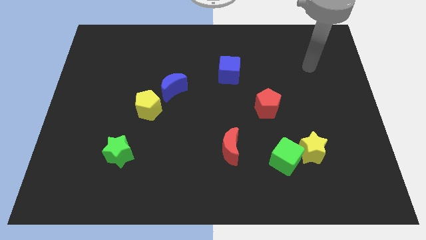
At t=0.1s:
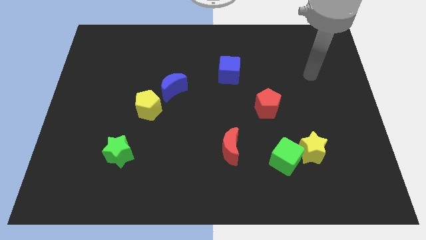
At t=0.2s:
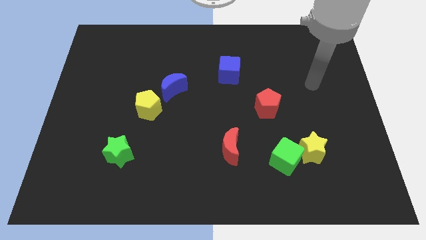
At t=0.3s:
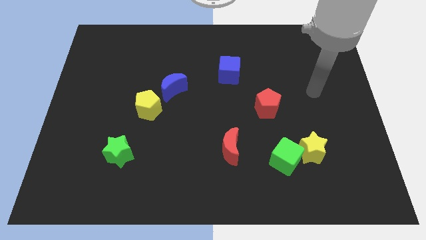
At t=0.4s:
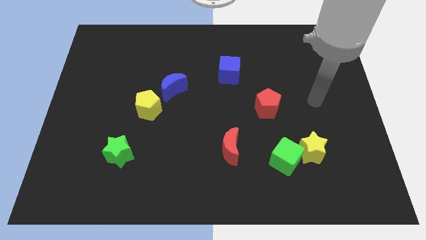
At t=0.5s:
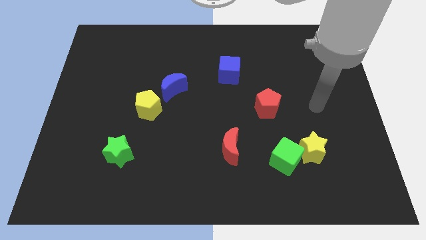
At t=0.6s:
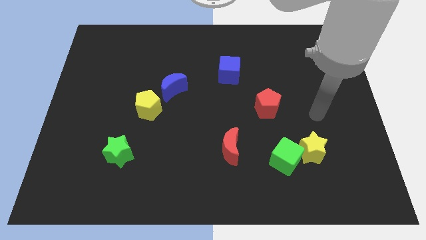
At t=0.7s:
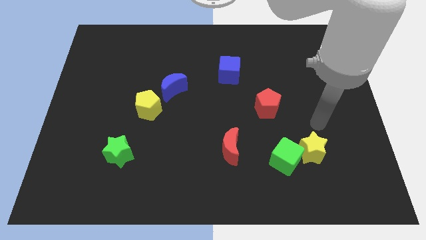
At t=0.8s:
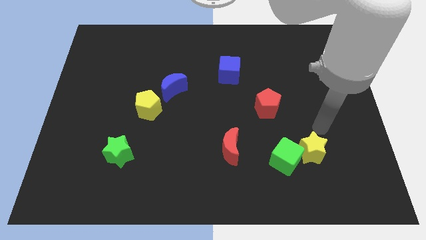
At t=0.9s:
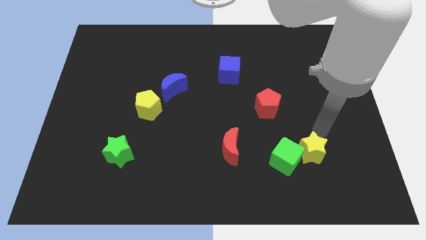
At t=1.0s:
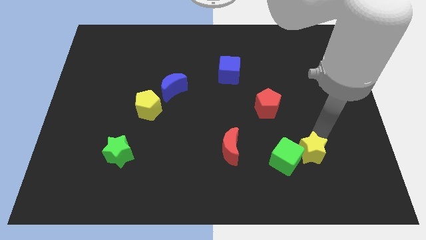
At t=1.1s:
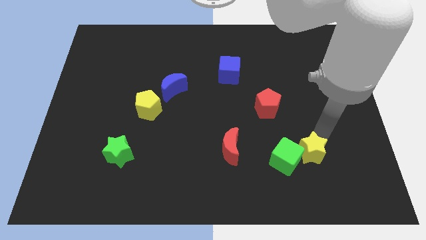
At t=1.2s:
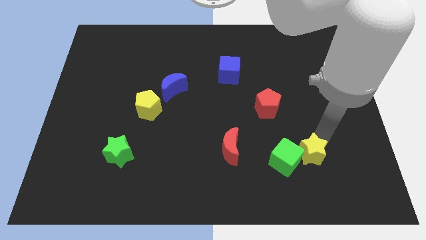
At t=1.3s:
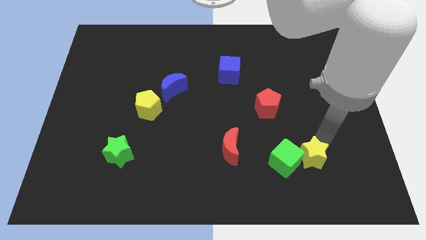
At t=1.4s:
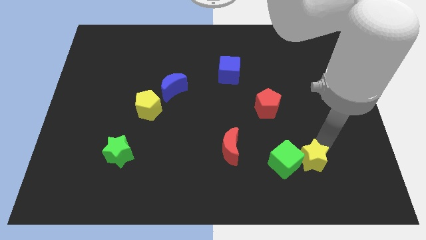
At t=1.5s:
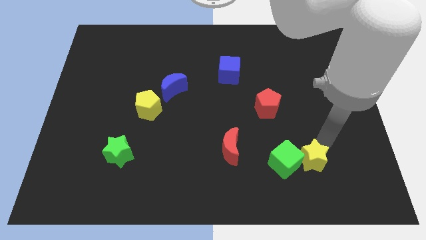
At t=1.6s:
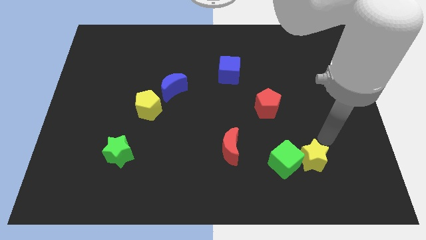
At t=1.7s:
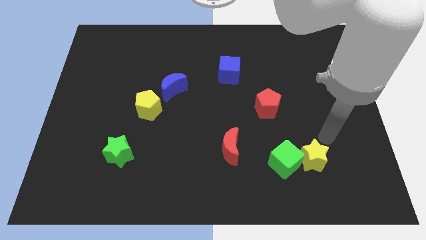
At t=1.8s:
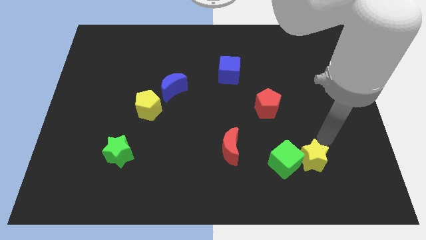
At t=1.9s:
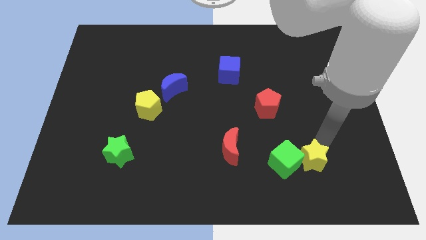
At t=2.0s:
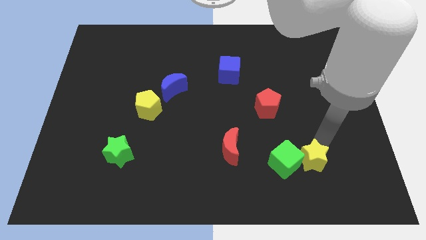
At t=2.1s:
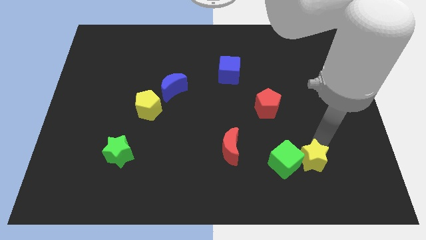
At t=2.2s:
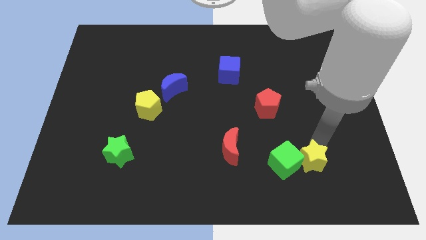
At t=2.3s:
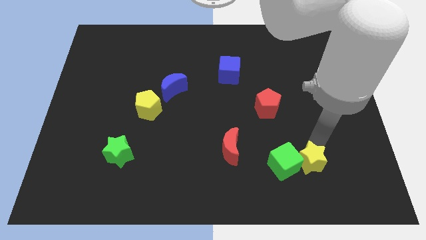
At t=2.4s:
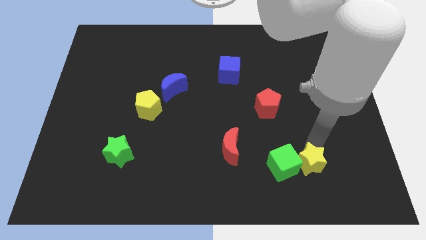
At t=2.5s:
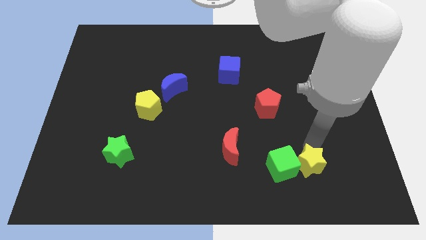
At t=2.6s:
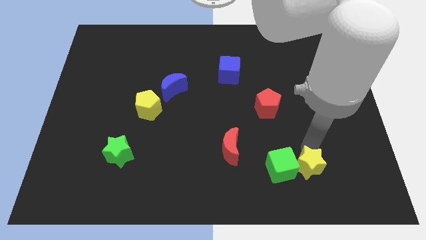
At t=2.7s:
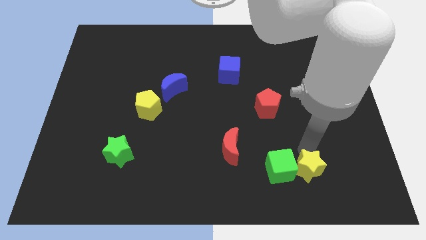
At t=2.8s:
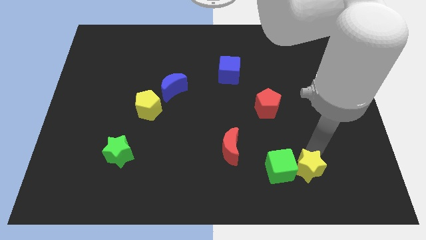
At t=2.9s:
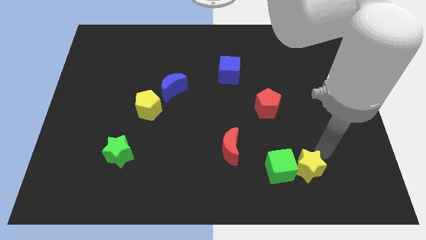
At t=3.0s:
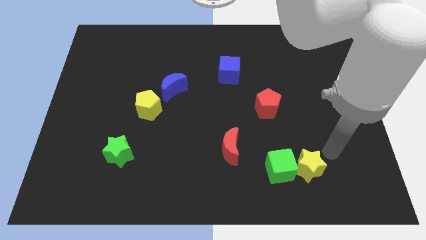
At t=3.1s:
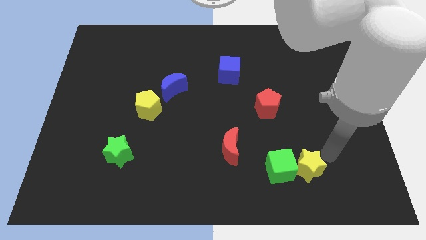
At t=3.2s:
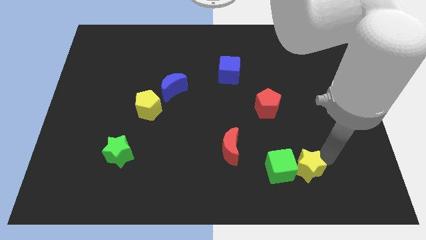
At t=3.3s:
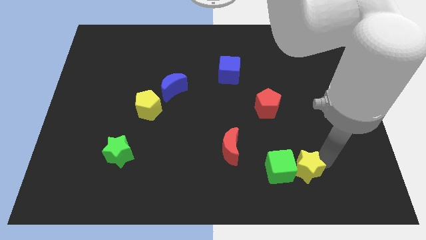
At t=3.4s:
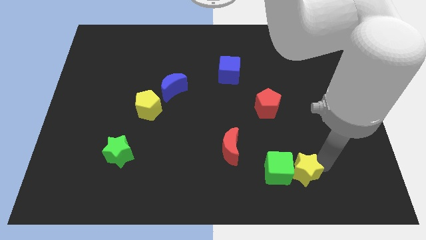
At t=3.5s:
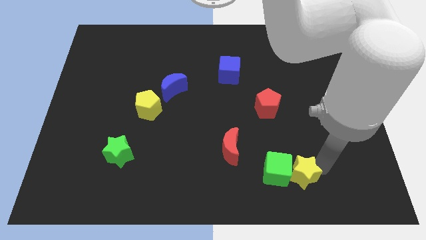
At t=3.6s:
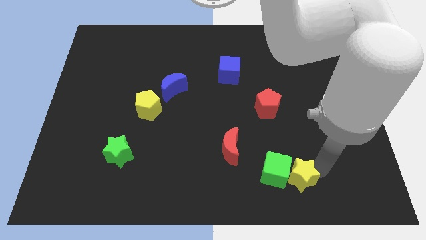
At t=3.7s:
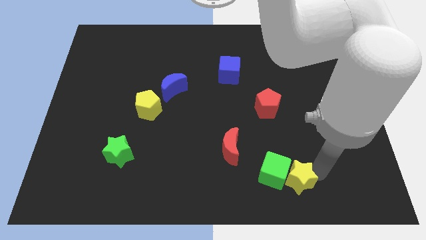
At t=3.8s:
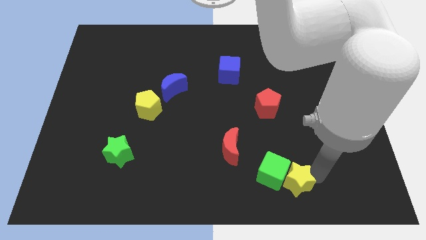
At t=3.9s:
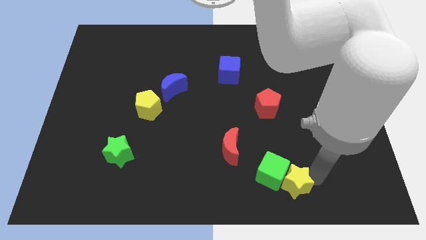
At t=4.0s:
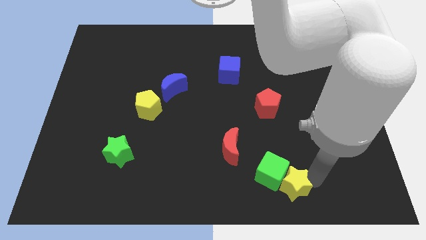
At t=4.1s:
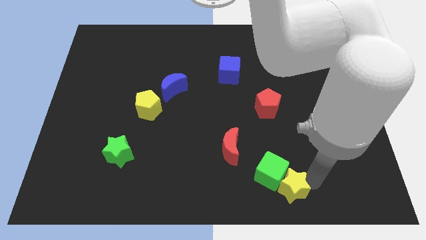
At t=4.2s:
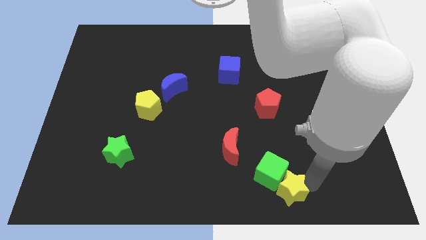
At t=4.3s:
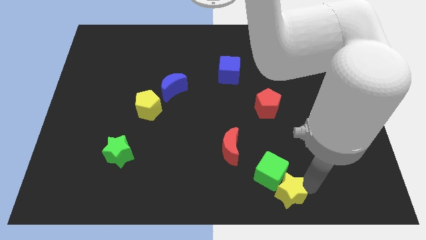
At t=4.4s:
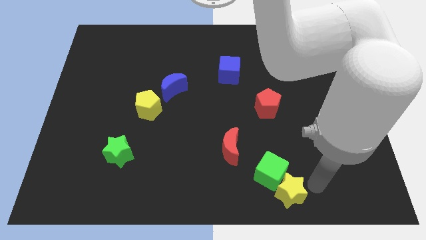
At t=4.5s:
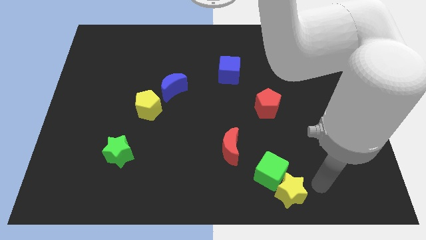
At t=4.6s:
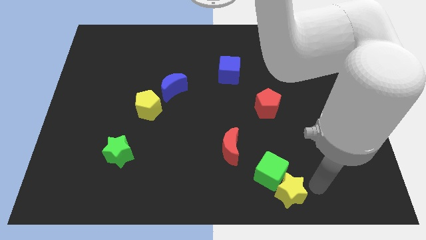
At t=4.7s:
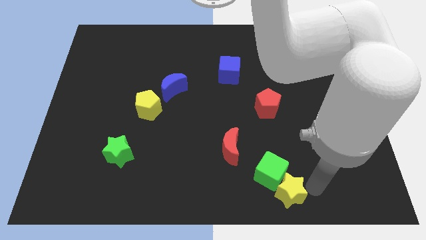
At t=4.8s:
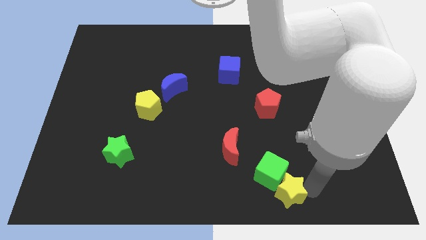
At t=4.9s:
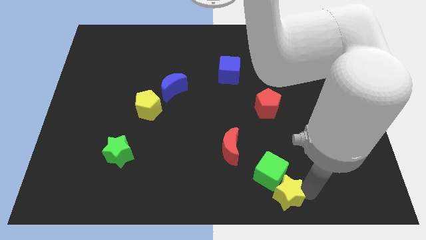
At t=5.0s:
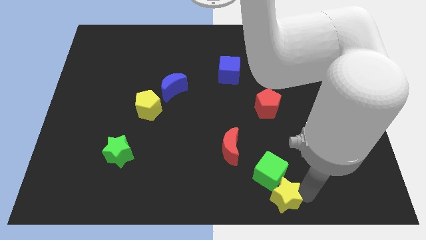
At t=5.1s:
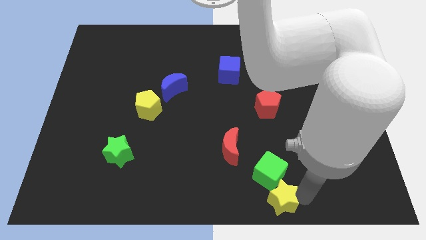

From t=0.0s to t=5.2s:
push the yellow star to the bottom

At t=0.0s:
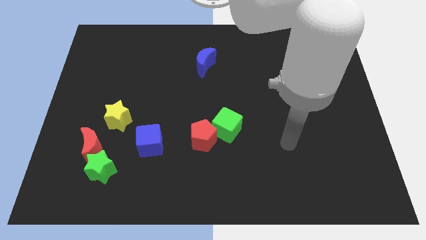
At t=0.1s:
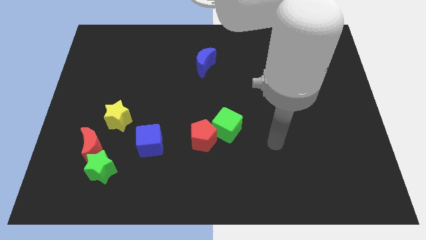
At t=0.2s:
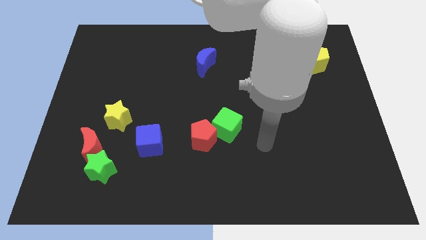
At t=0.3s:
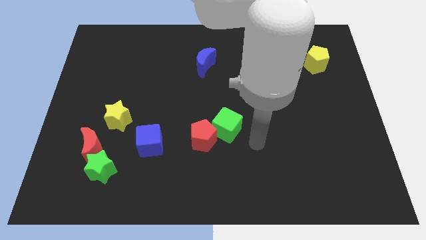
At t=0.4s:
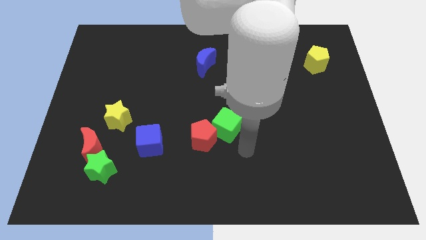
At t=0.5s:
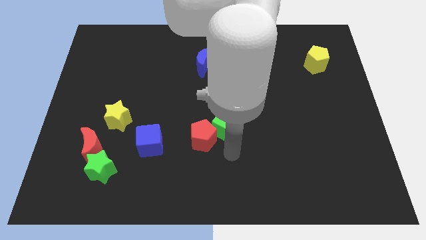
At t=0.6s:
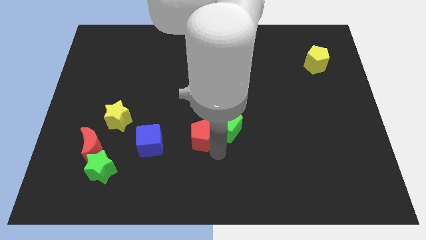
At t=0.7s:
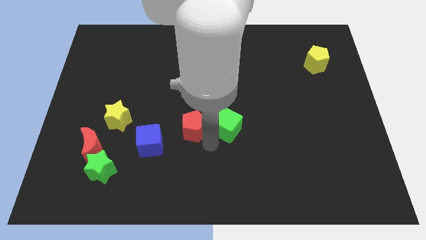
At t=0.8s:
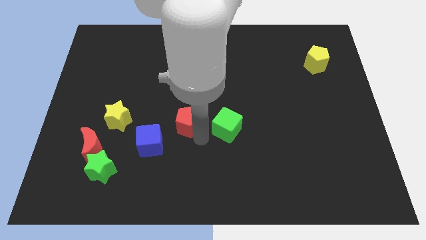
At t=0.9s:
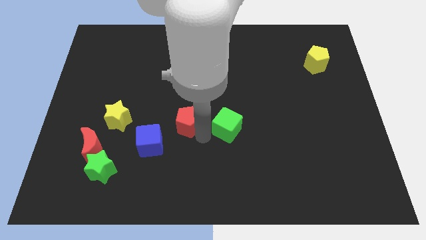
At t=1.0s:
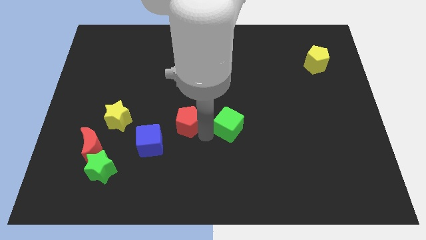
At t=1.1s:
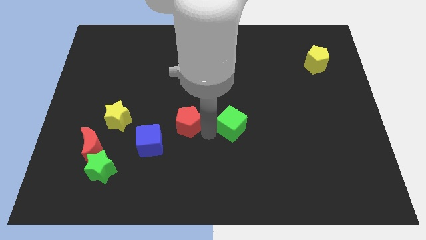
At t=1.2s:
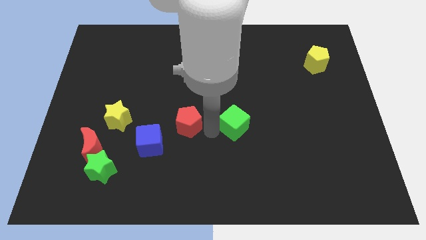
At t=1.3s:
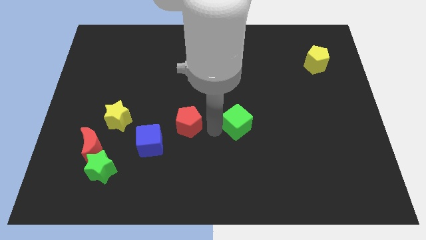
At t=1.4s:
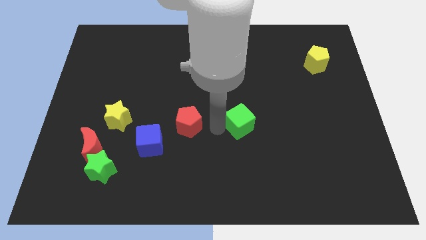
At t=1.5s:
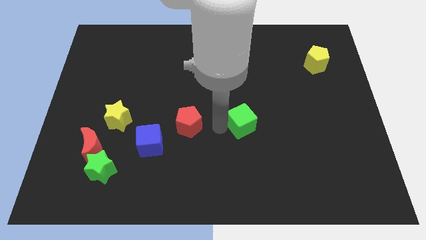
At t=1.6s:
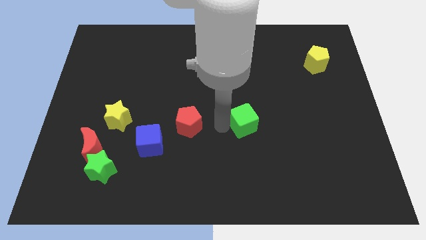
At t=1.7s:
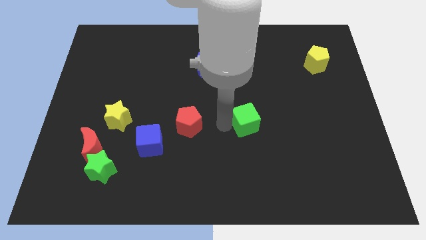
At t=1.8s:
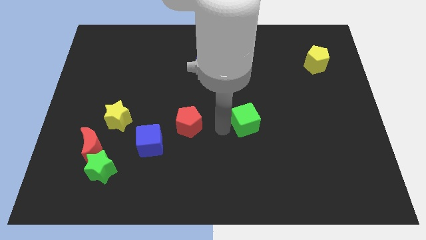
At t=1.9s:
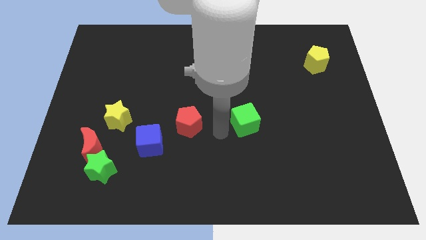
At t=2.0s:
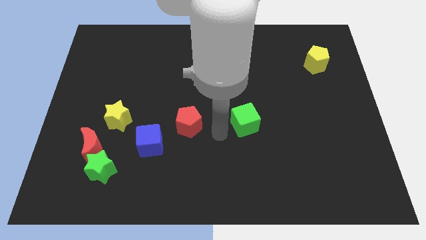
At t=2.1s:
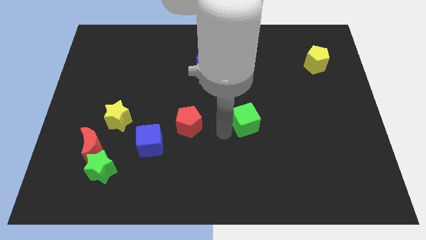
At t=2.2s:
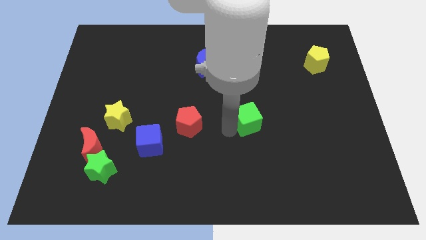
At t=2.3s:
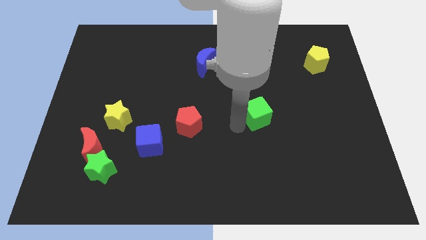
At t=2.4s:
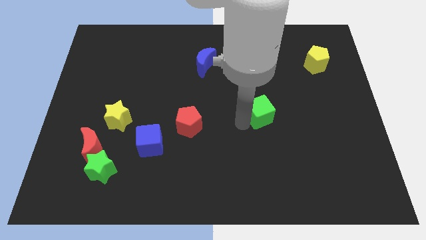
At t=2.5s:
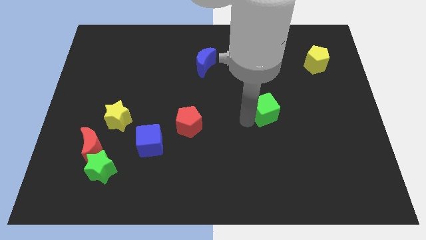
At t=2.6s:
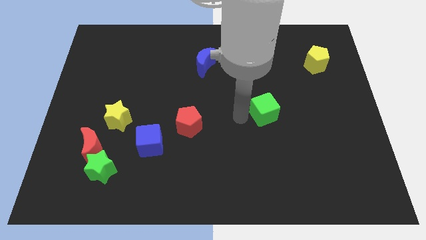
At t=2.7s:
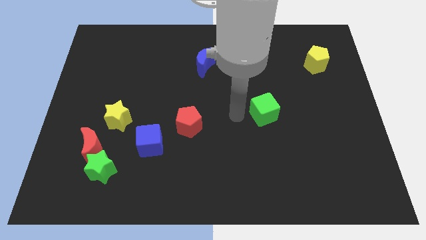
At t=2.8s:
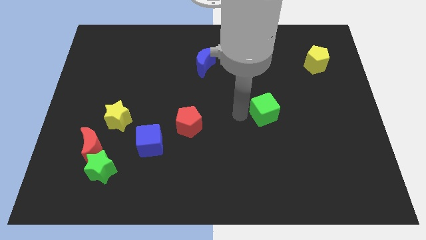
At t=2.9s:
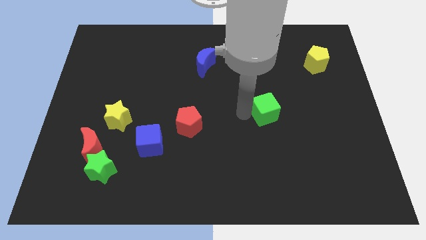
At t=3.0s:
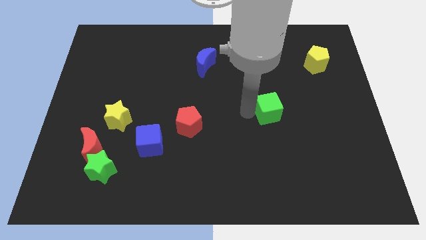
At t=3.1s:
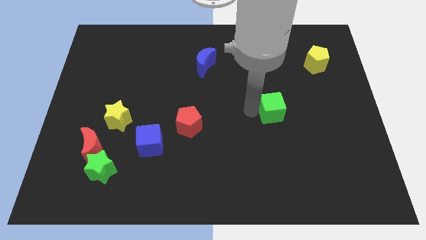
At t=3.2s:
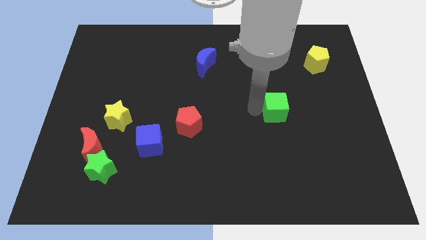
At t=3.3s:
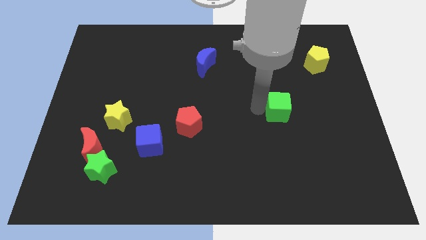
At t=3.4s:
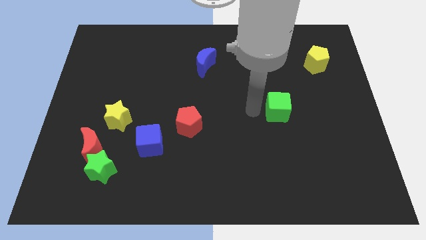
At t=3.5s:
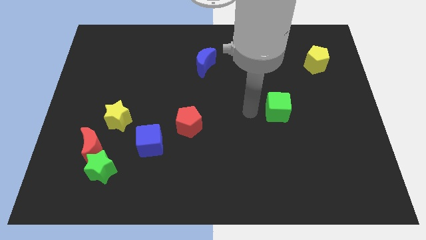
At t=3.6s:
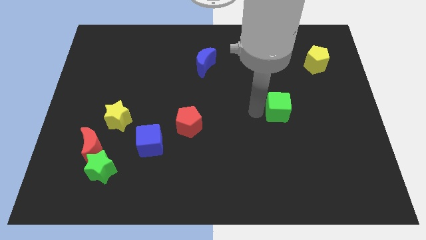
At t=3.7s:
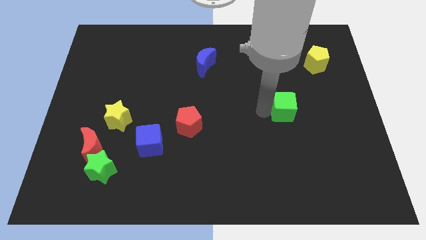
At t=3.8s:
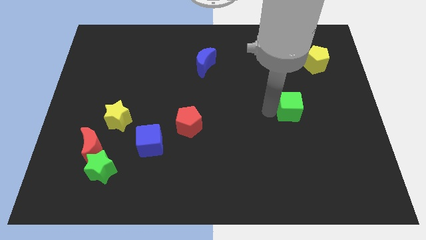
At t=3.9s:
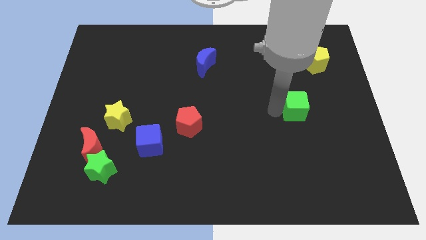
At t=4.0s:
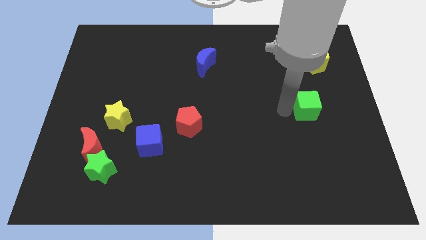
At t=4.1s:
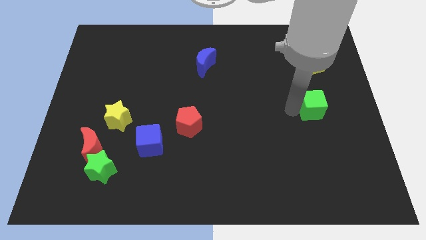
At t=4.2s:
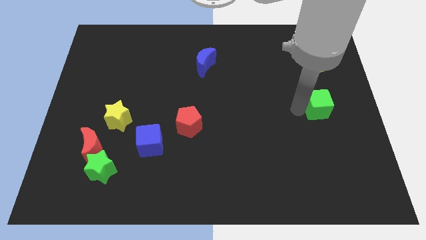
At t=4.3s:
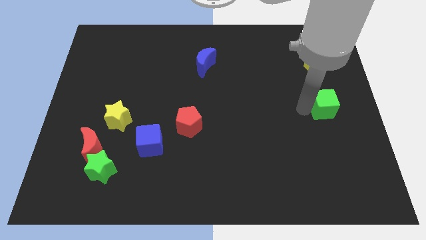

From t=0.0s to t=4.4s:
slide the green cube to the right side
